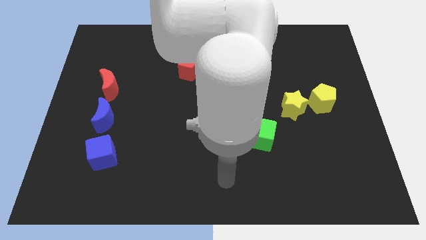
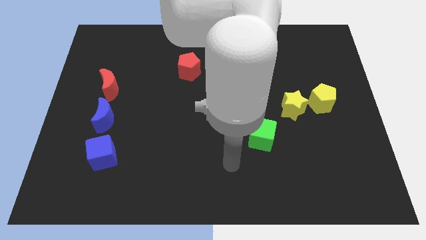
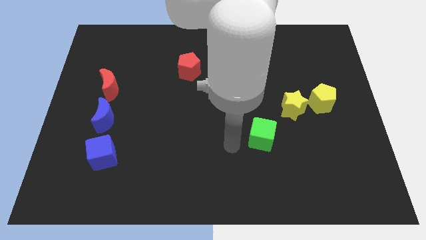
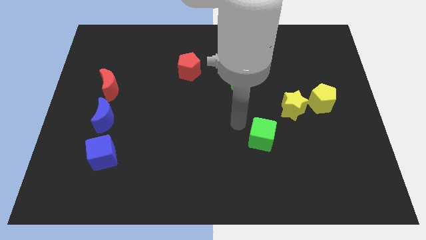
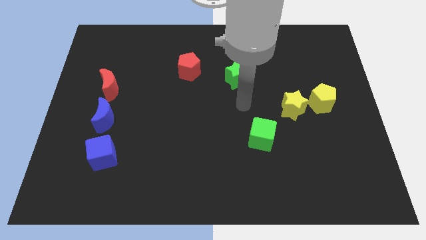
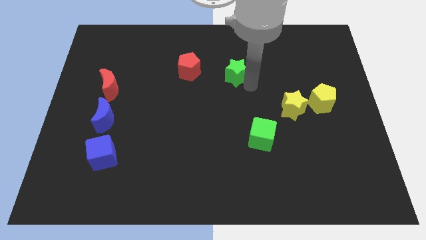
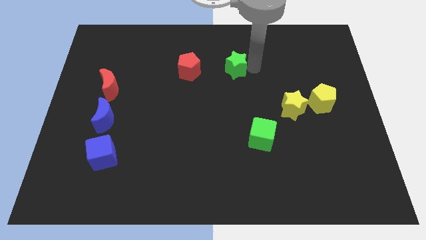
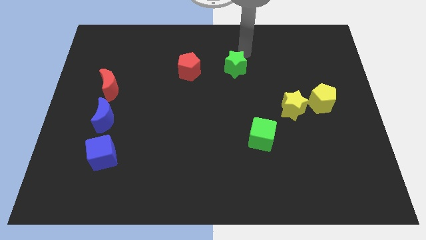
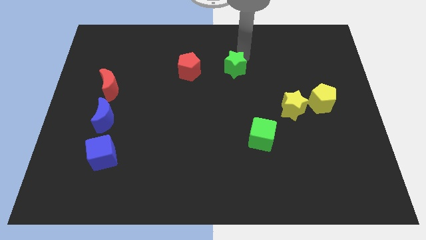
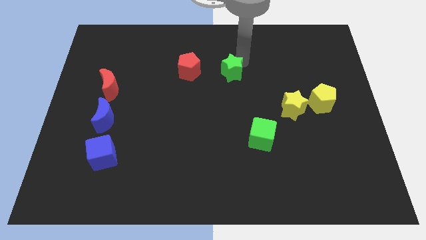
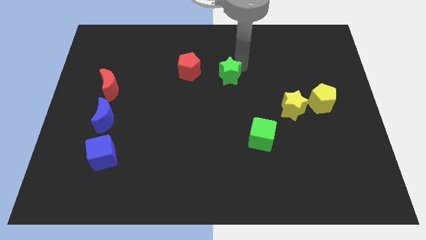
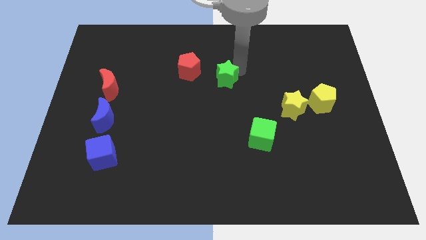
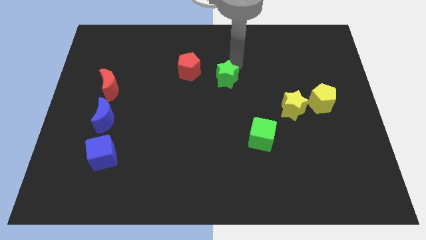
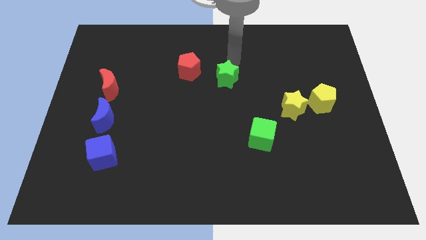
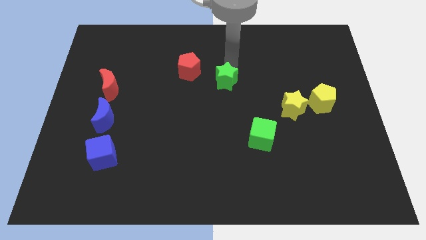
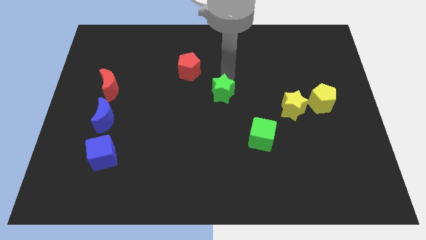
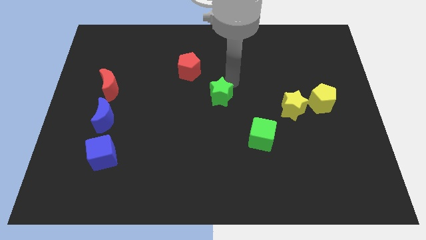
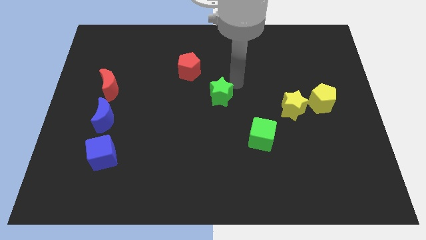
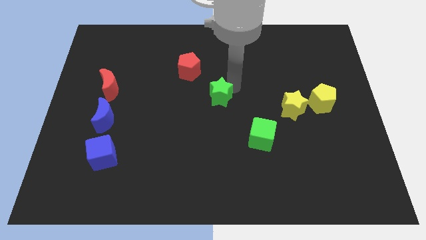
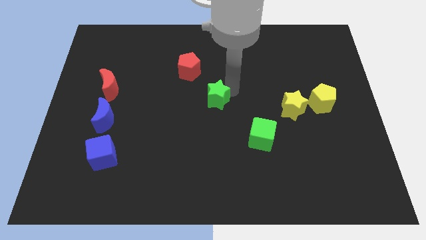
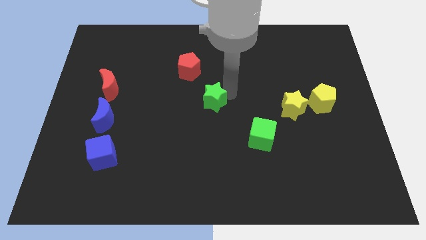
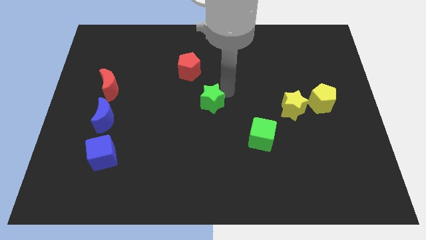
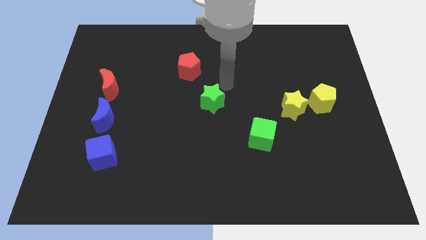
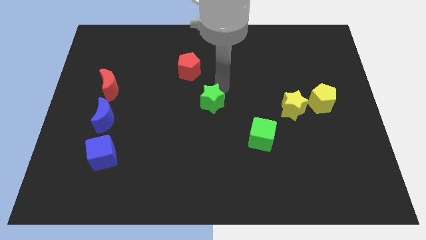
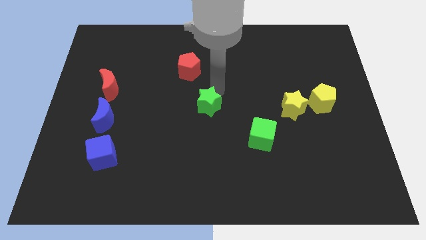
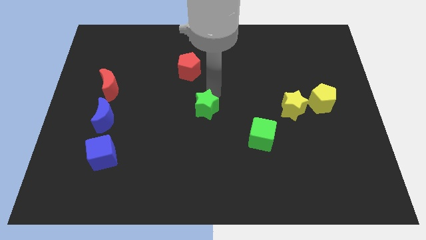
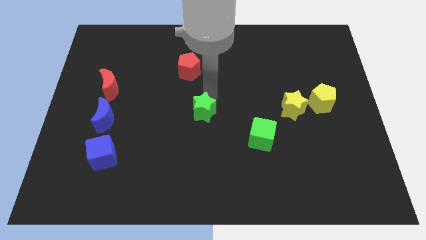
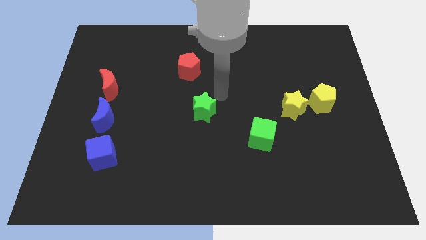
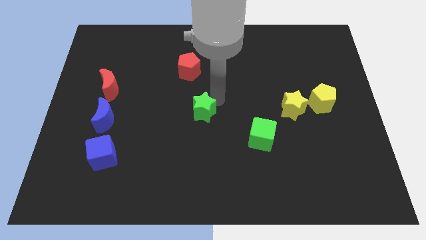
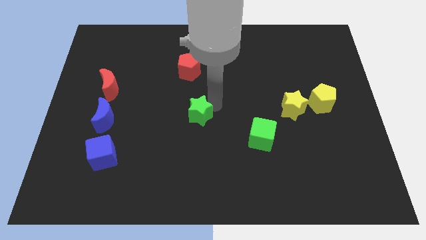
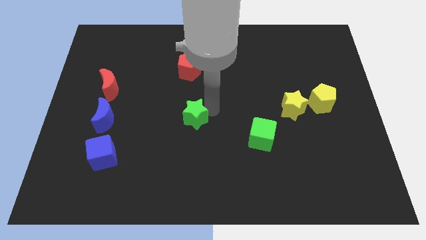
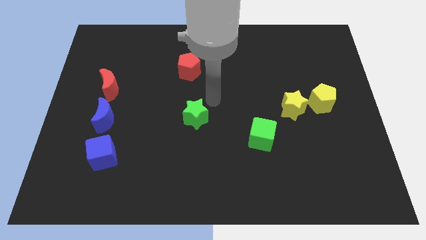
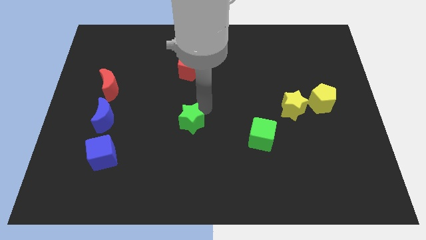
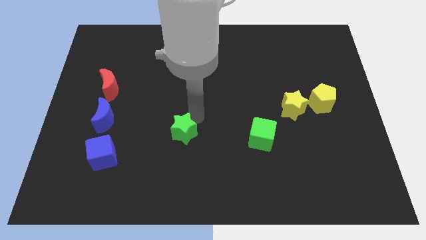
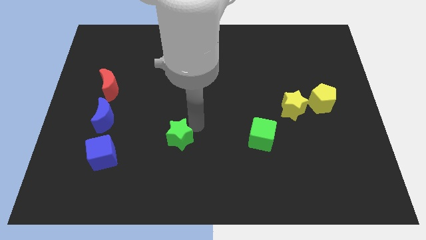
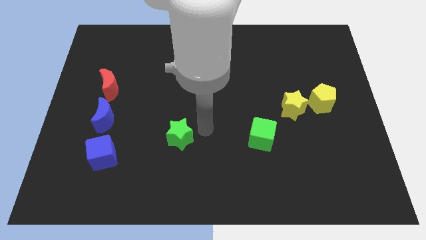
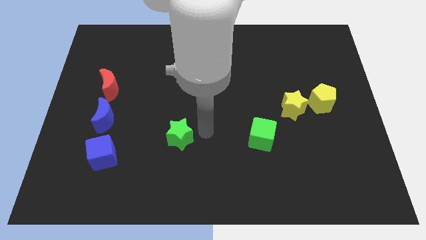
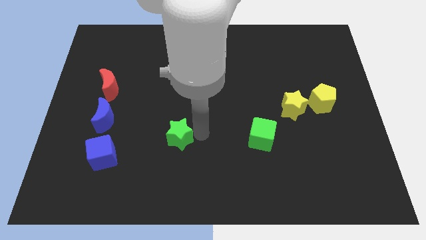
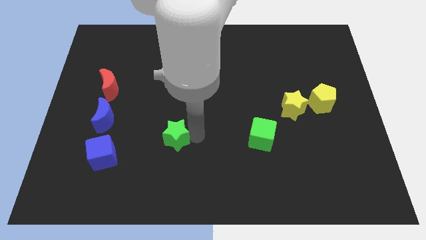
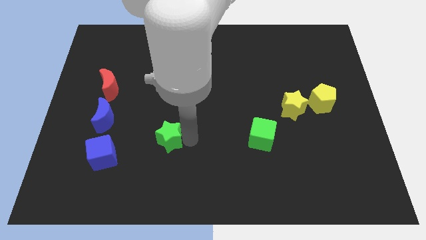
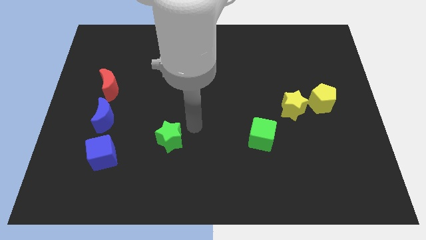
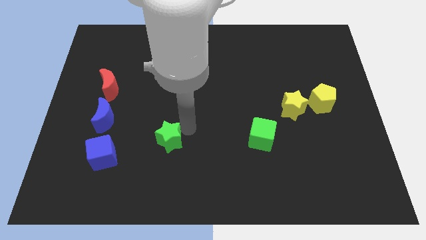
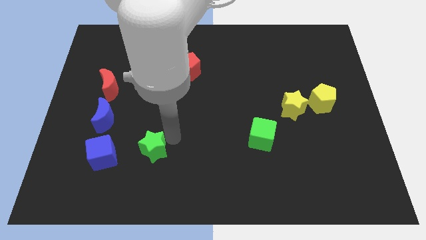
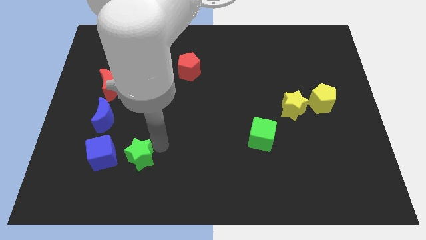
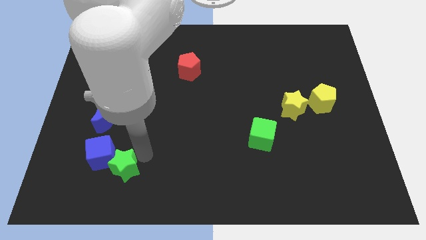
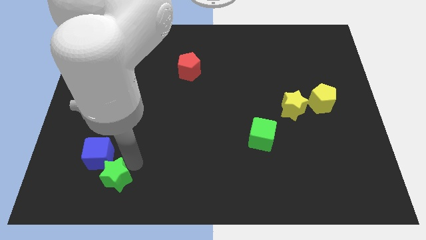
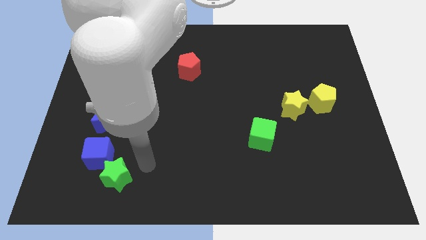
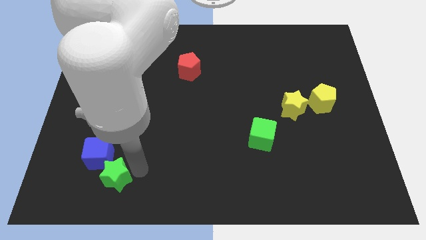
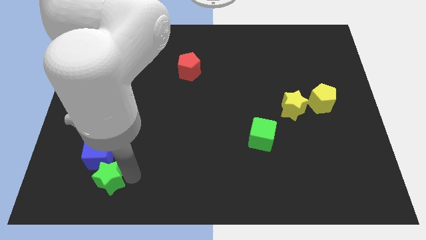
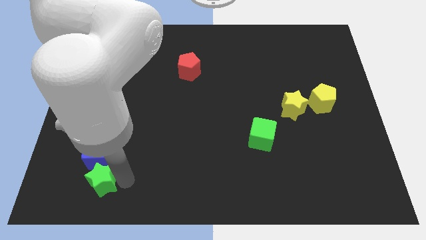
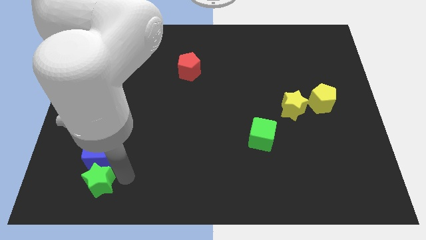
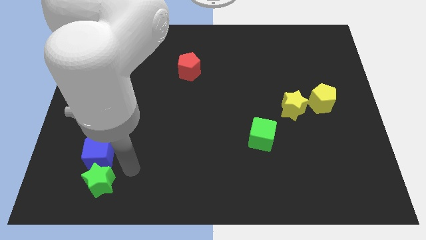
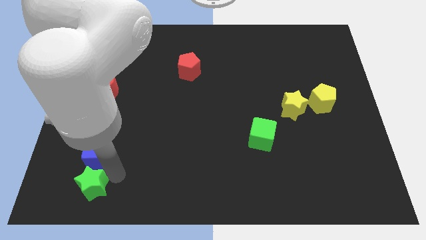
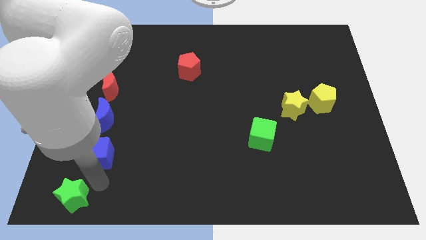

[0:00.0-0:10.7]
push the green star to the bottom left

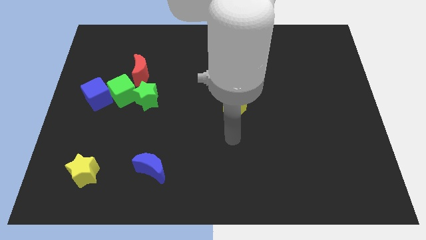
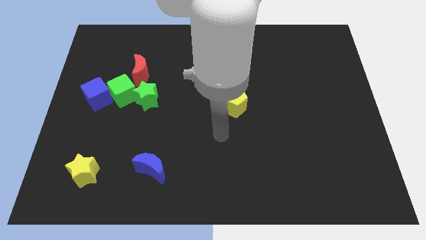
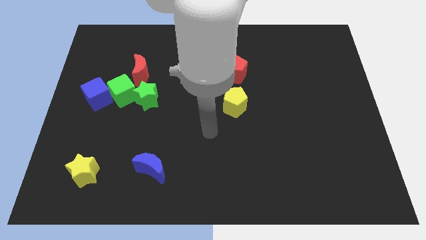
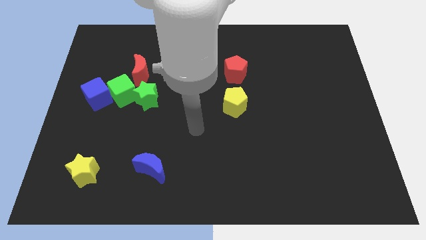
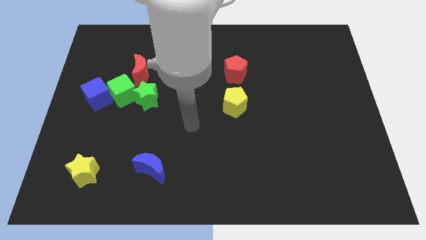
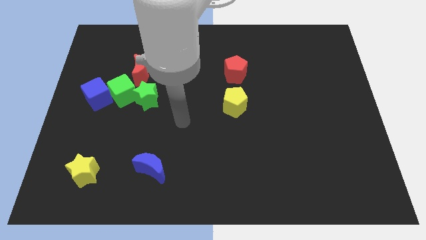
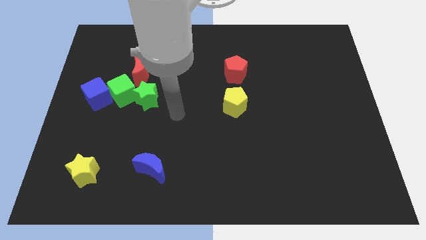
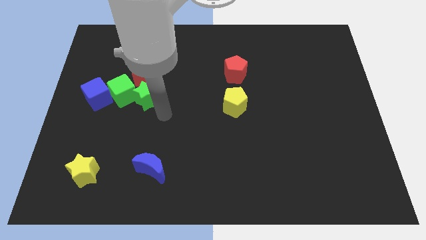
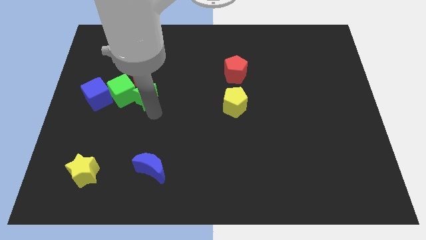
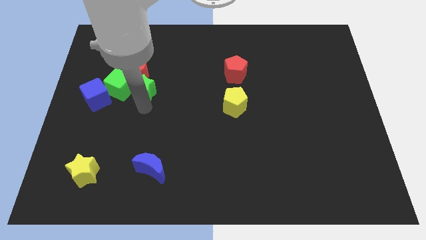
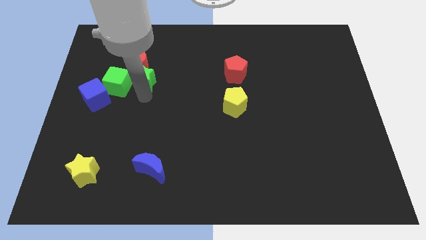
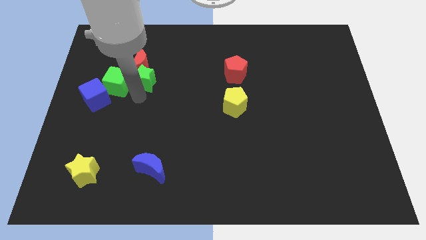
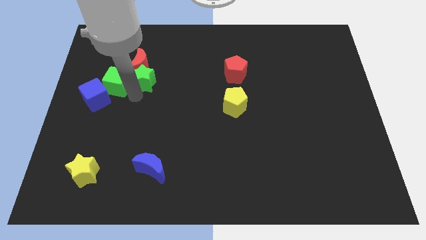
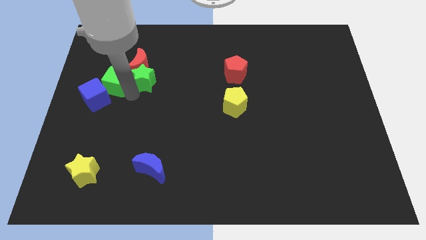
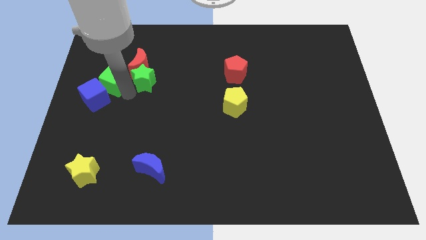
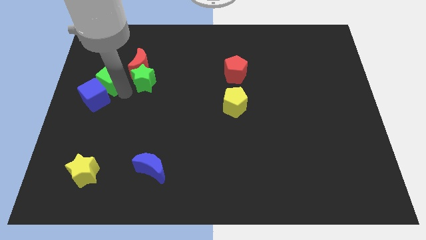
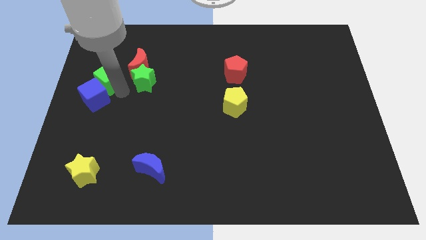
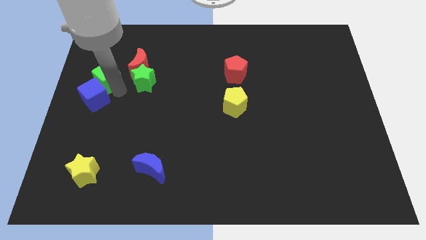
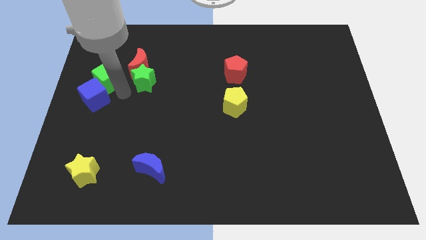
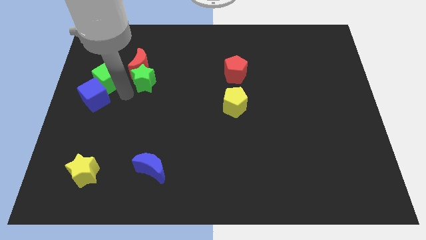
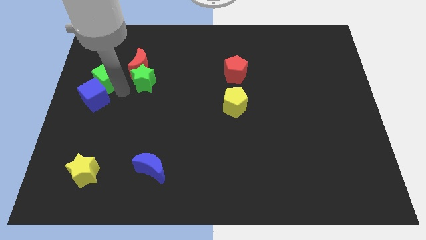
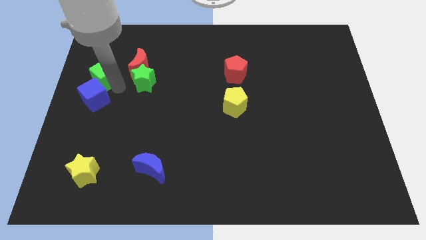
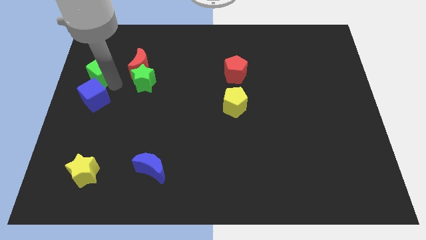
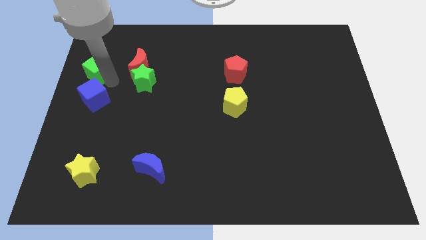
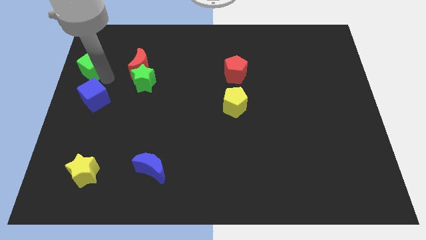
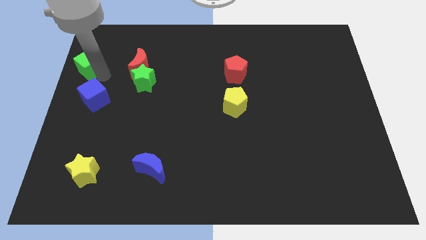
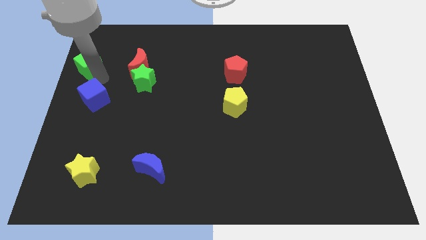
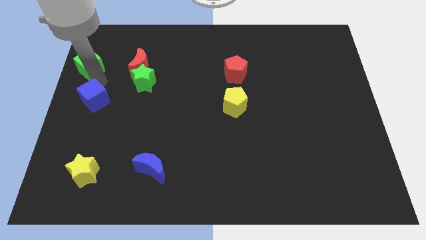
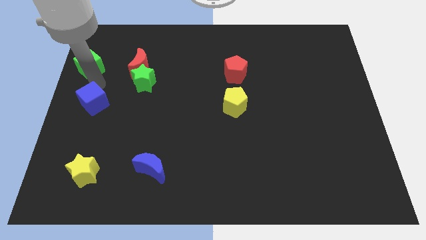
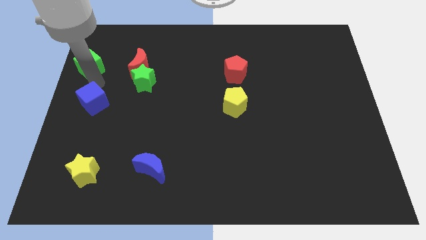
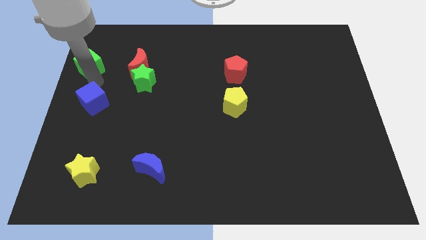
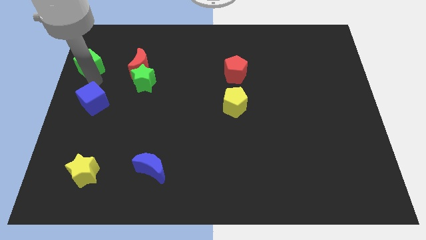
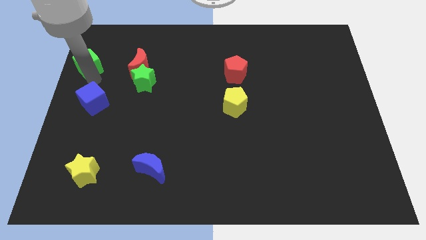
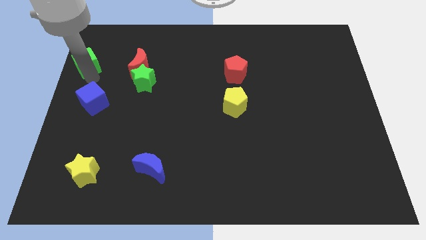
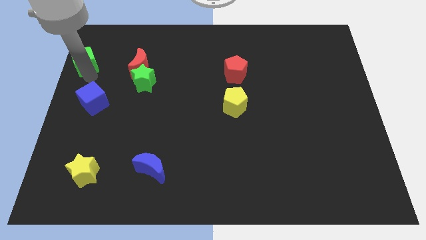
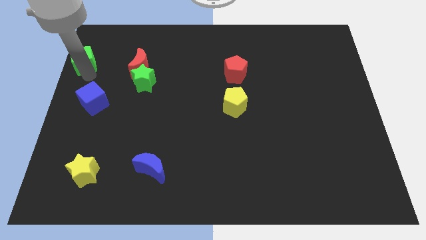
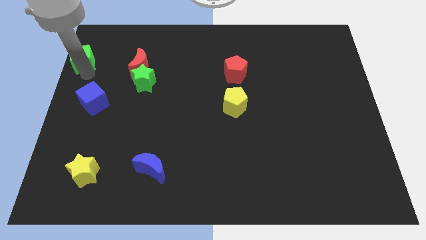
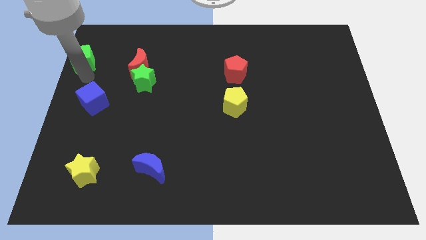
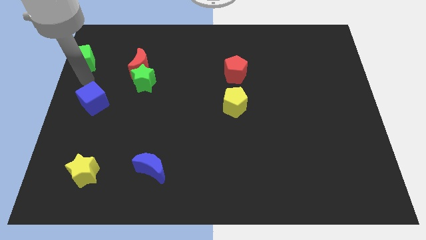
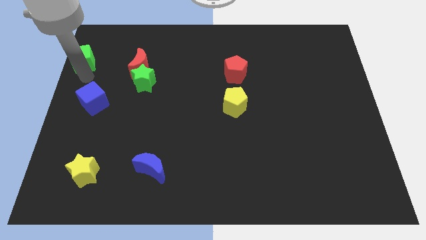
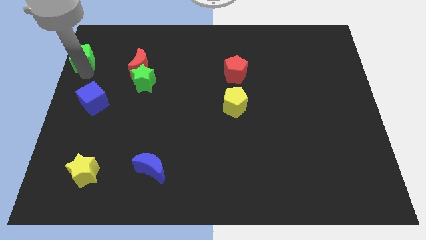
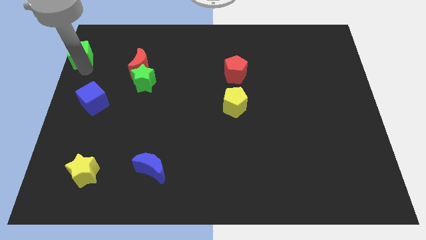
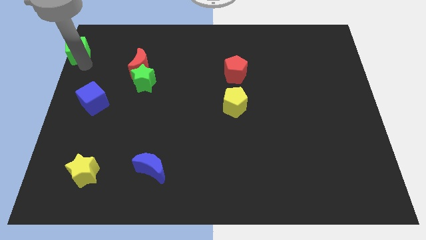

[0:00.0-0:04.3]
put the green cube to the top left corner
